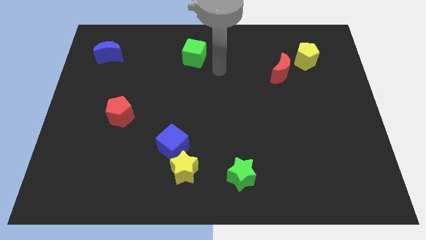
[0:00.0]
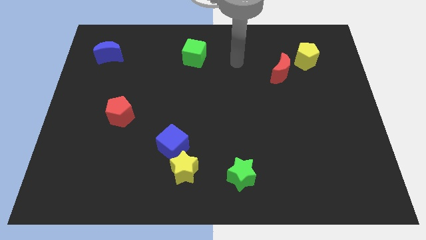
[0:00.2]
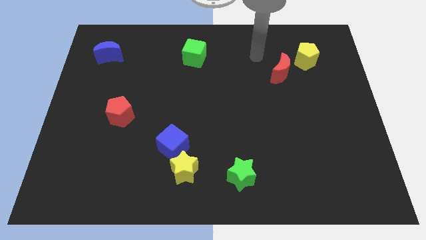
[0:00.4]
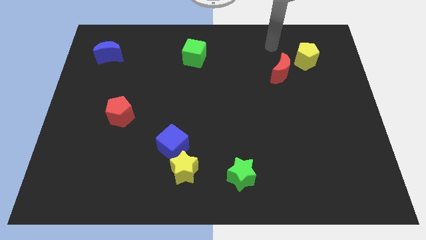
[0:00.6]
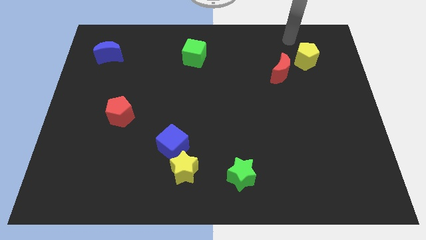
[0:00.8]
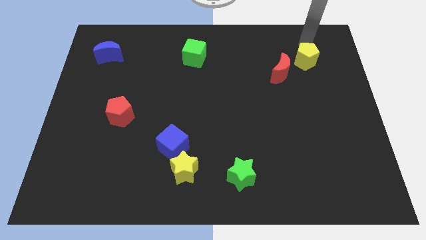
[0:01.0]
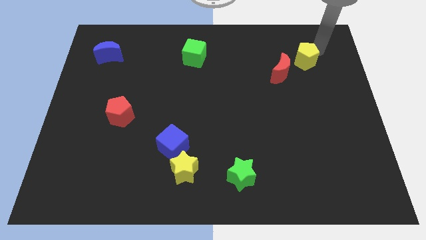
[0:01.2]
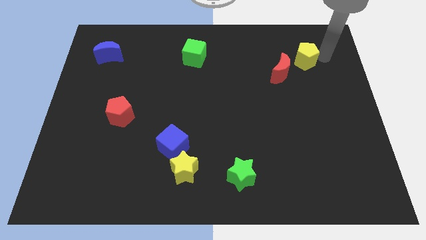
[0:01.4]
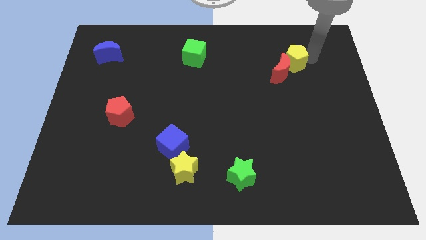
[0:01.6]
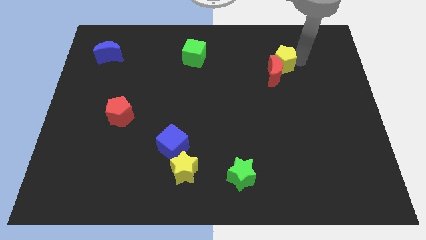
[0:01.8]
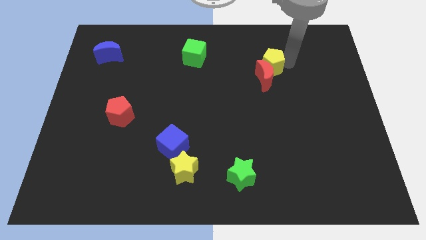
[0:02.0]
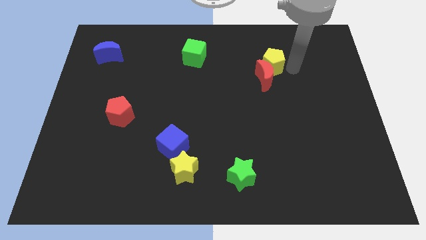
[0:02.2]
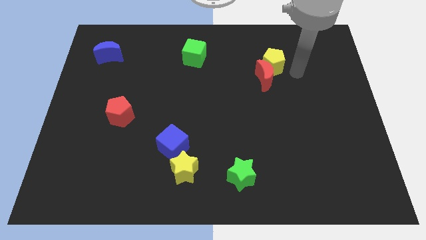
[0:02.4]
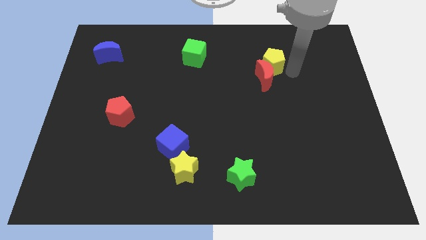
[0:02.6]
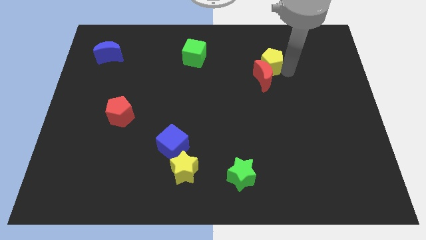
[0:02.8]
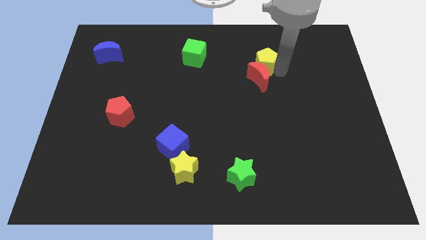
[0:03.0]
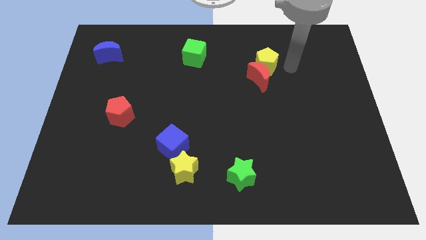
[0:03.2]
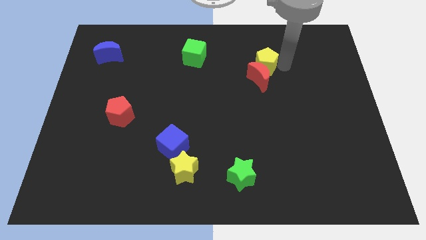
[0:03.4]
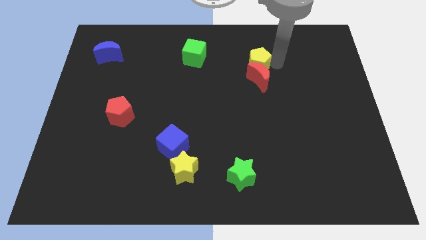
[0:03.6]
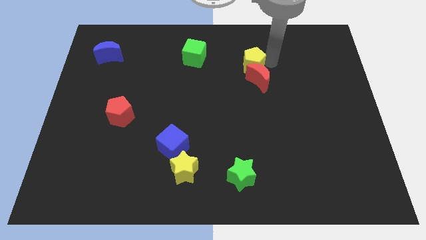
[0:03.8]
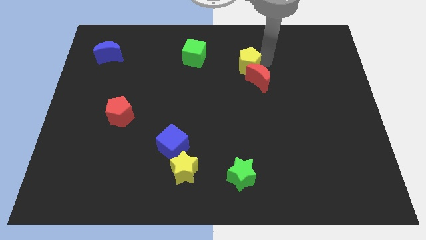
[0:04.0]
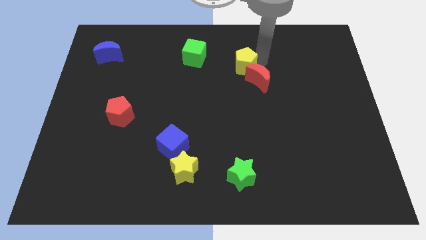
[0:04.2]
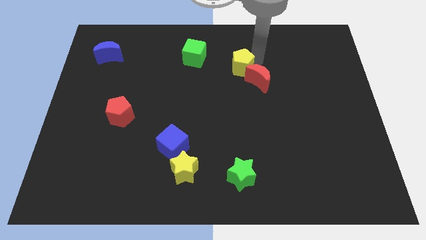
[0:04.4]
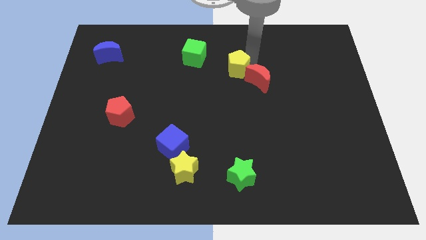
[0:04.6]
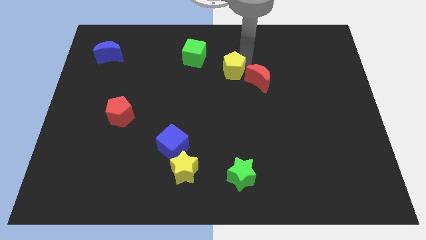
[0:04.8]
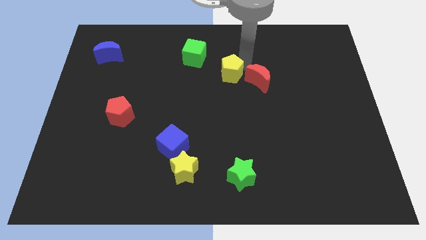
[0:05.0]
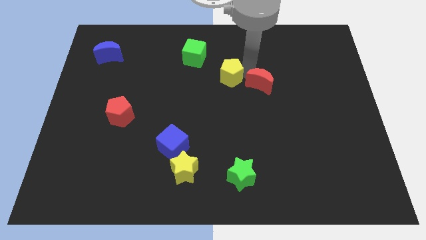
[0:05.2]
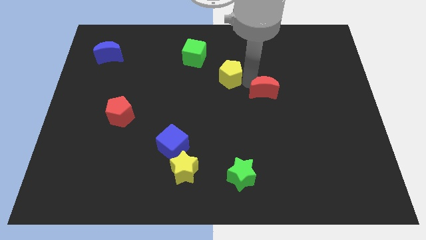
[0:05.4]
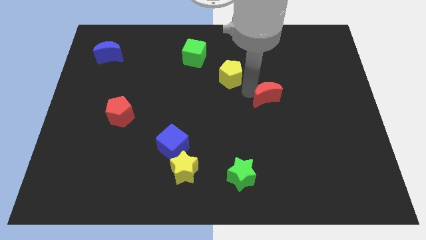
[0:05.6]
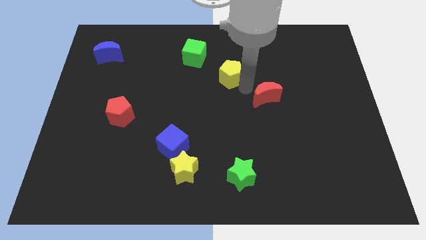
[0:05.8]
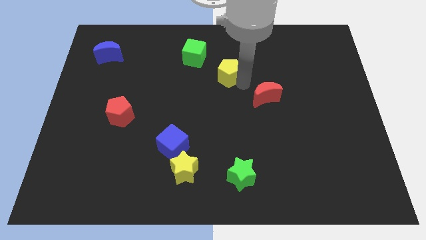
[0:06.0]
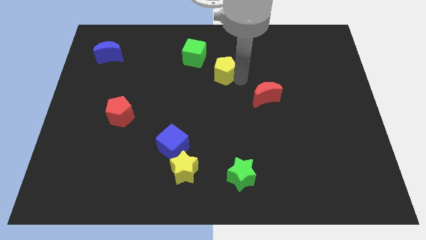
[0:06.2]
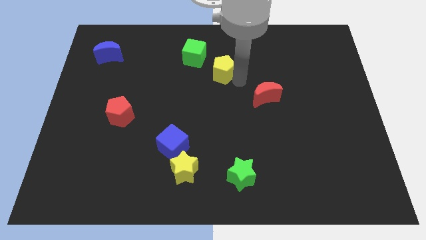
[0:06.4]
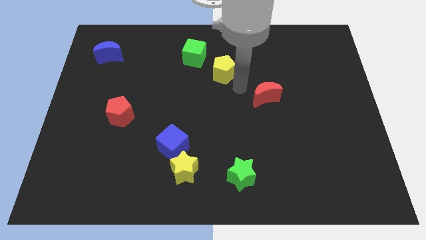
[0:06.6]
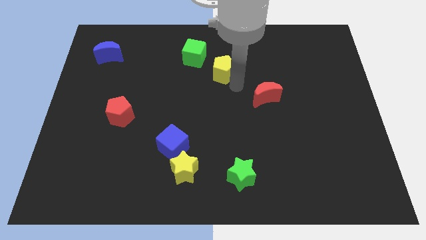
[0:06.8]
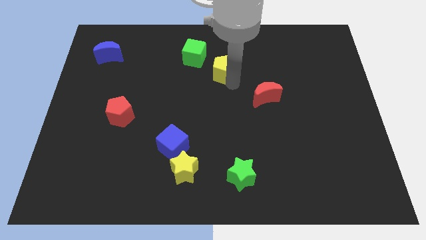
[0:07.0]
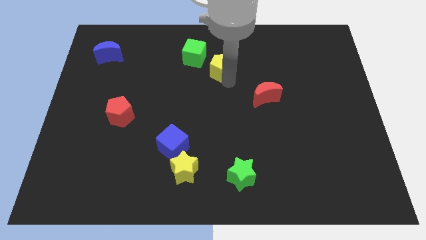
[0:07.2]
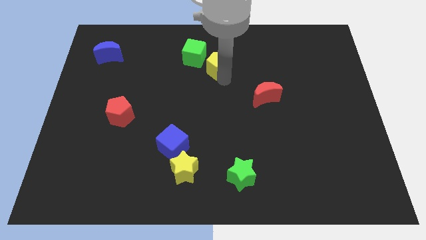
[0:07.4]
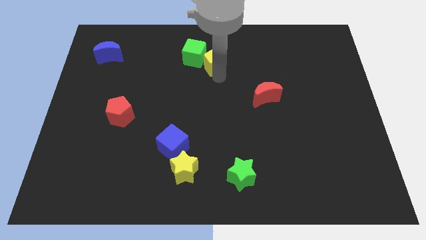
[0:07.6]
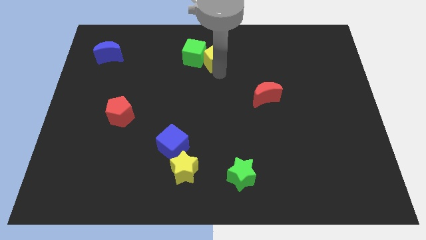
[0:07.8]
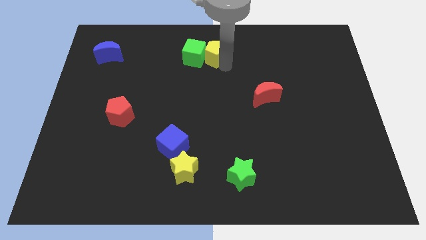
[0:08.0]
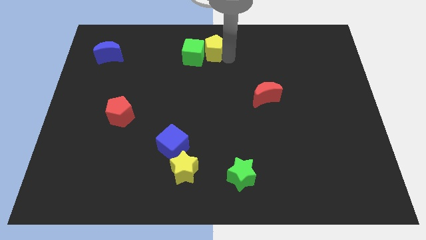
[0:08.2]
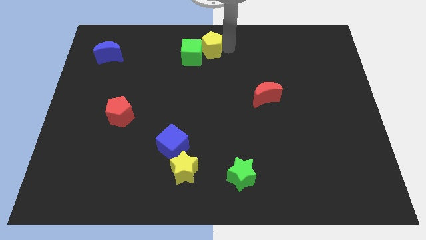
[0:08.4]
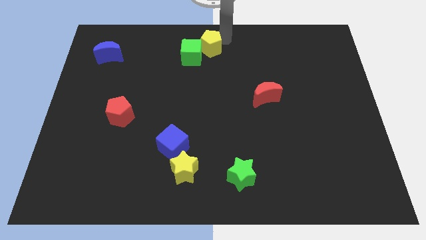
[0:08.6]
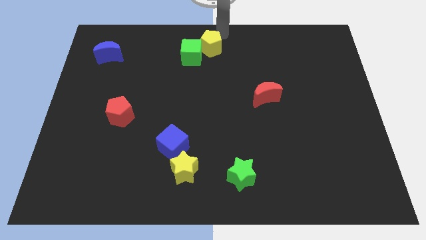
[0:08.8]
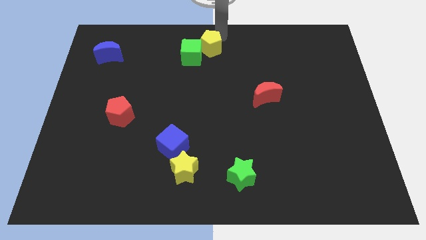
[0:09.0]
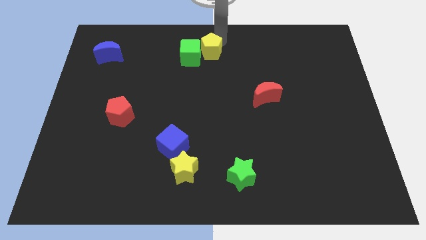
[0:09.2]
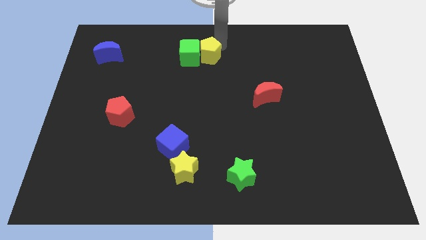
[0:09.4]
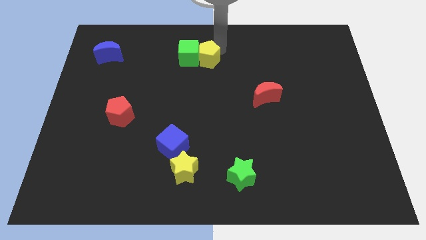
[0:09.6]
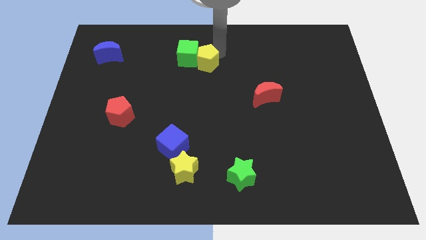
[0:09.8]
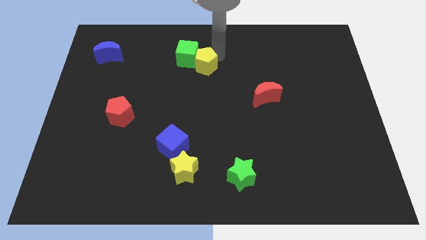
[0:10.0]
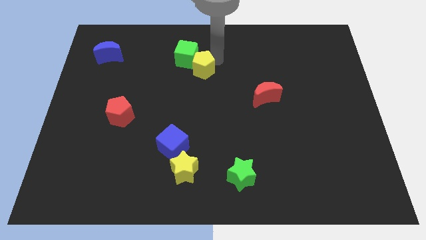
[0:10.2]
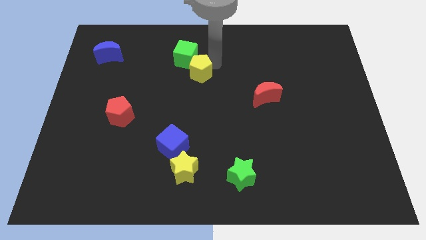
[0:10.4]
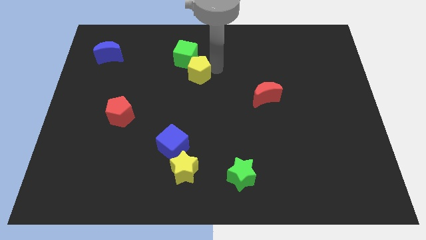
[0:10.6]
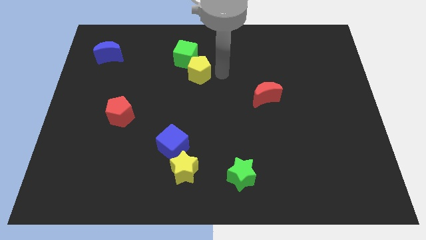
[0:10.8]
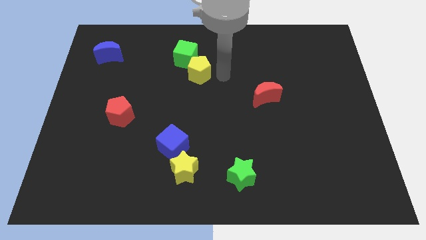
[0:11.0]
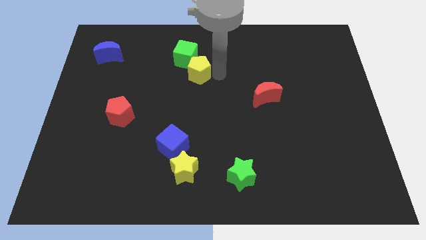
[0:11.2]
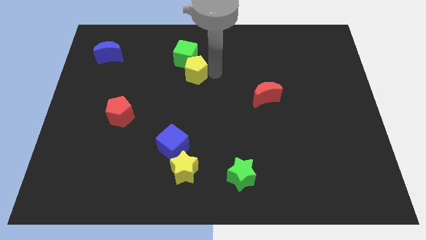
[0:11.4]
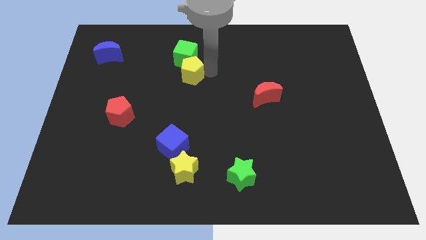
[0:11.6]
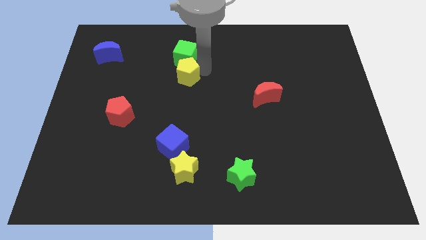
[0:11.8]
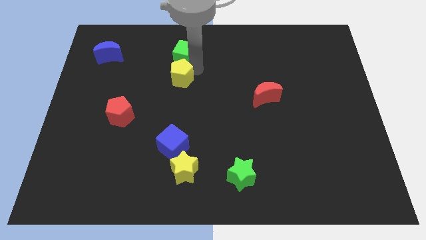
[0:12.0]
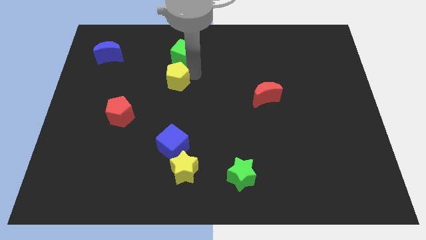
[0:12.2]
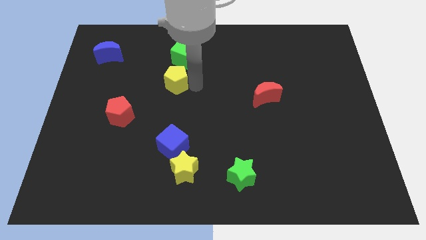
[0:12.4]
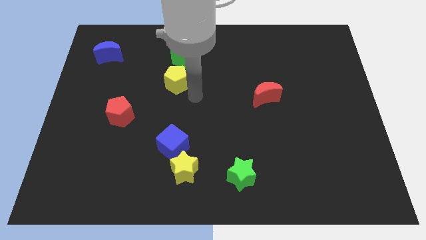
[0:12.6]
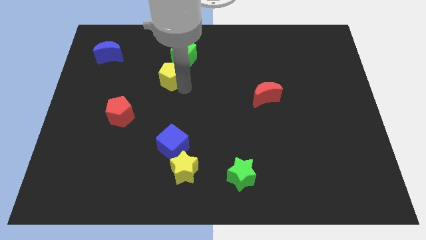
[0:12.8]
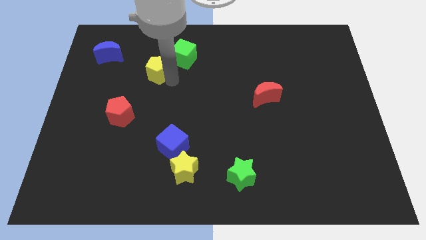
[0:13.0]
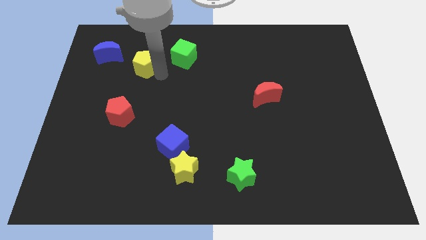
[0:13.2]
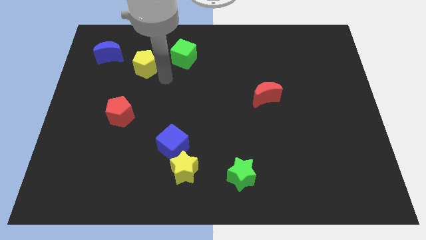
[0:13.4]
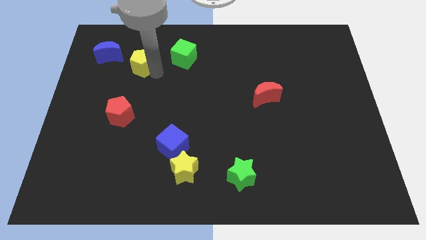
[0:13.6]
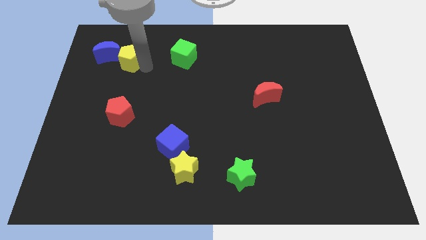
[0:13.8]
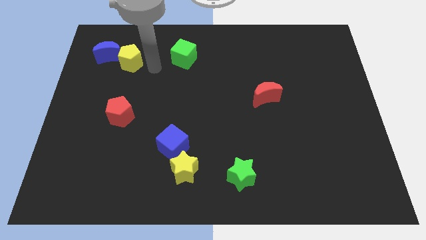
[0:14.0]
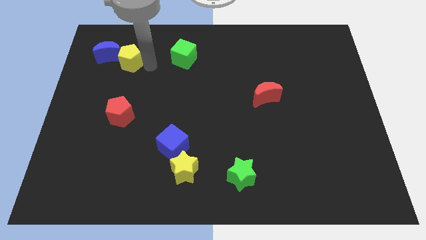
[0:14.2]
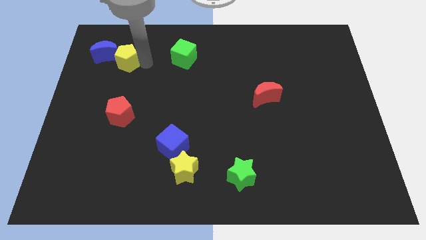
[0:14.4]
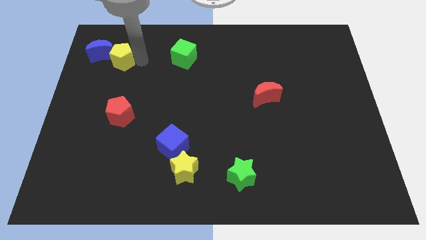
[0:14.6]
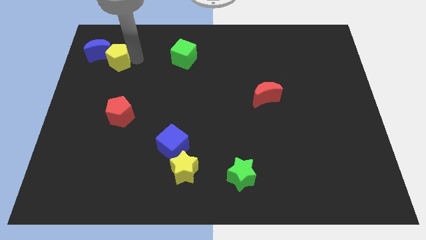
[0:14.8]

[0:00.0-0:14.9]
put the yellow pentagon next to the blue moon

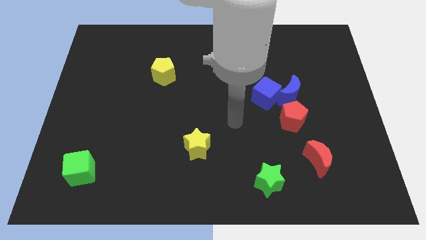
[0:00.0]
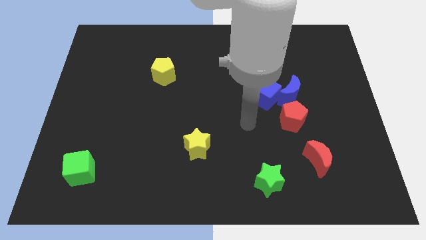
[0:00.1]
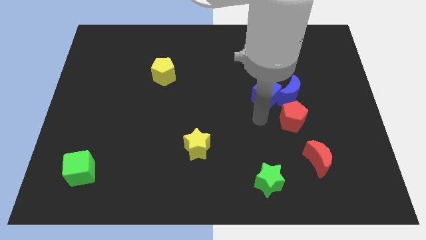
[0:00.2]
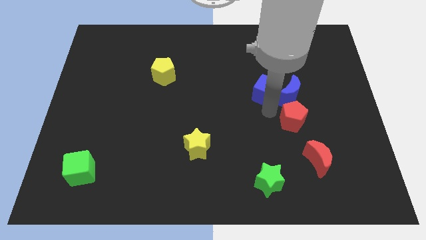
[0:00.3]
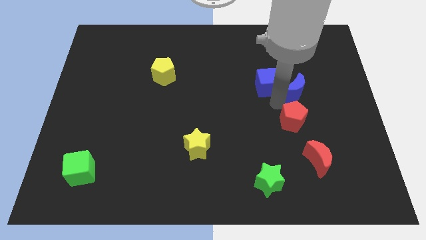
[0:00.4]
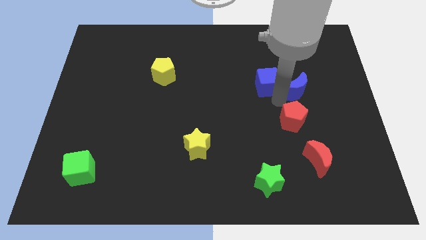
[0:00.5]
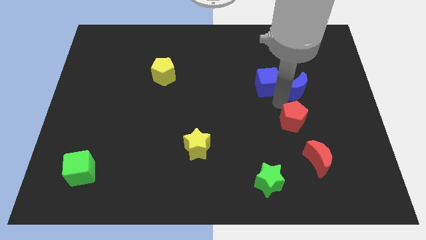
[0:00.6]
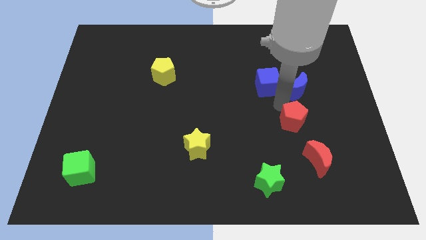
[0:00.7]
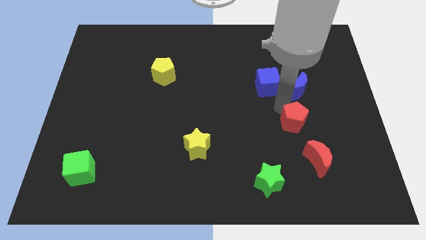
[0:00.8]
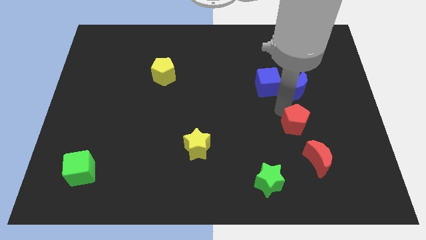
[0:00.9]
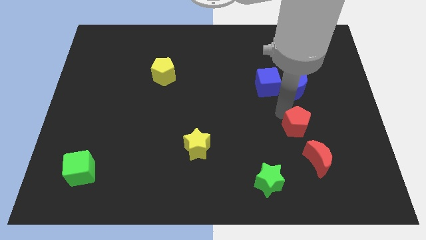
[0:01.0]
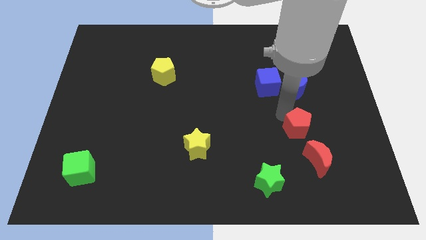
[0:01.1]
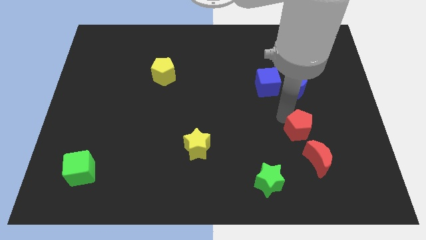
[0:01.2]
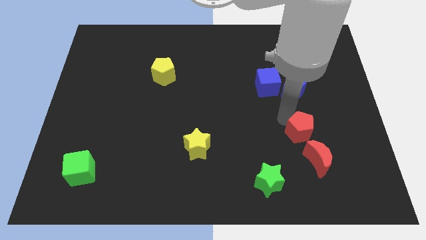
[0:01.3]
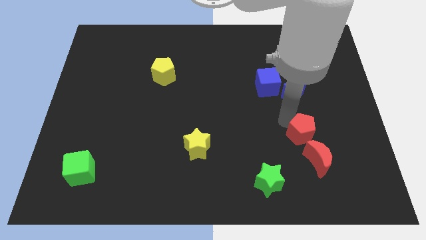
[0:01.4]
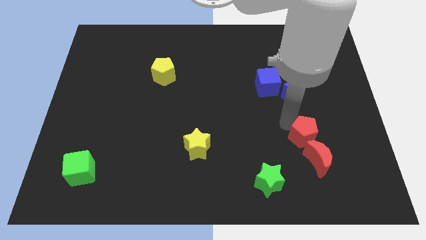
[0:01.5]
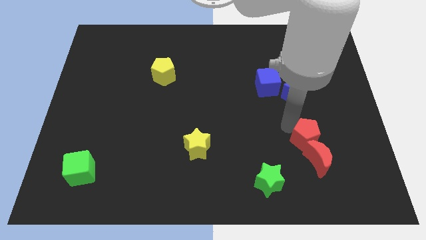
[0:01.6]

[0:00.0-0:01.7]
move the red pentagon towards the red moon
